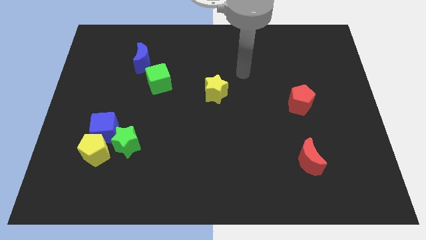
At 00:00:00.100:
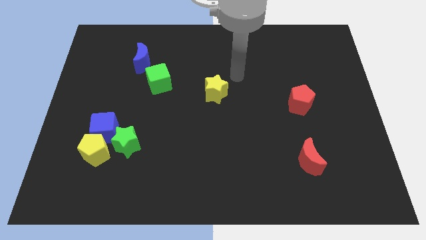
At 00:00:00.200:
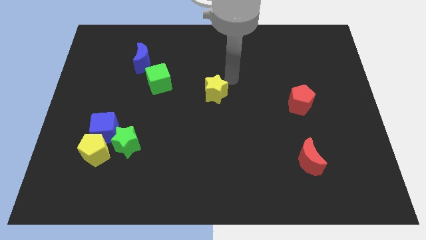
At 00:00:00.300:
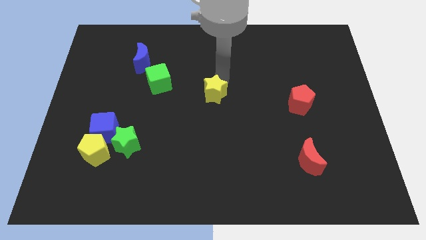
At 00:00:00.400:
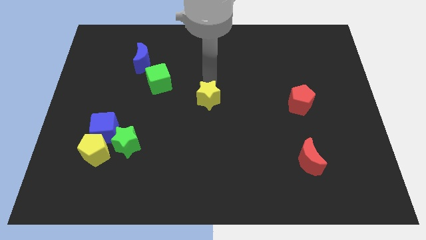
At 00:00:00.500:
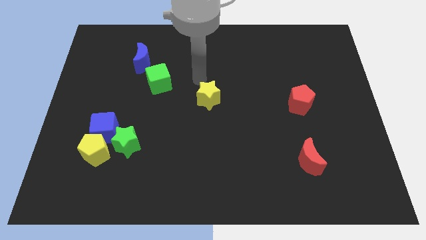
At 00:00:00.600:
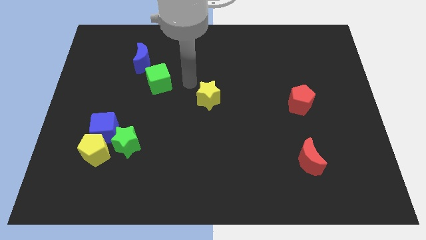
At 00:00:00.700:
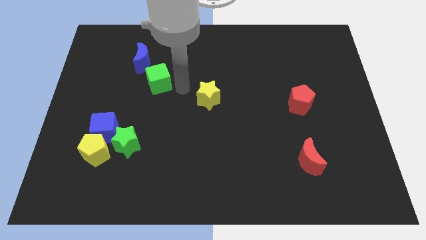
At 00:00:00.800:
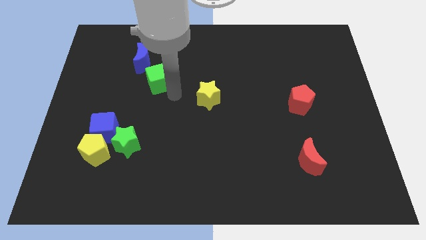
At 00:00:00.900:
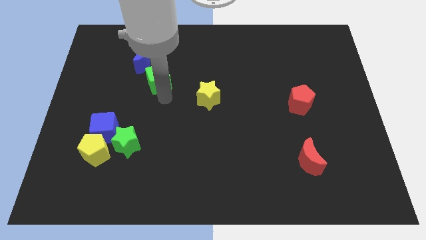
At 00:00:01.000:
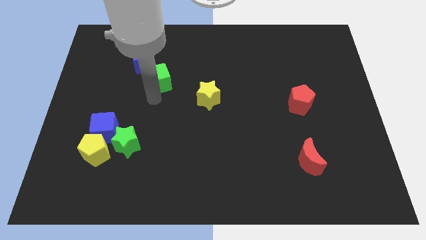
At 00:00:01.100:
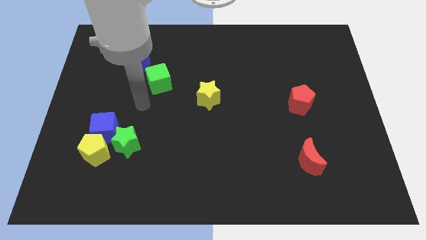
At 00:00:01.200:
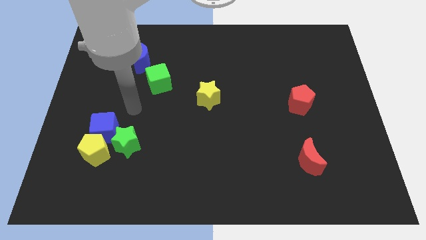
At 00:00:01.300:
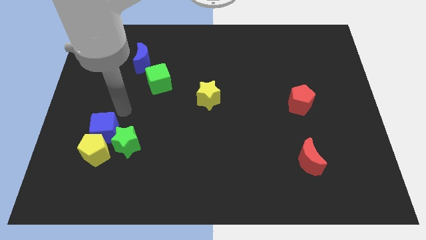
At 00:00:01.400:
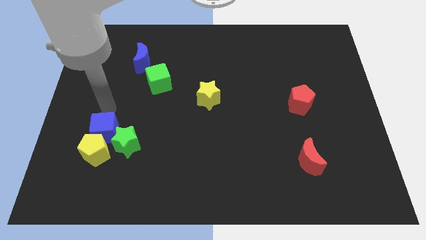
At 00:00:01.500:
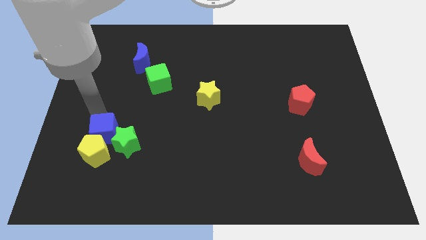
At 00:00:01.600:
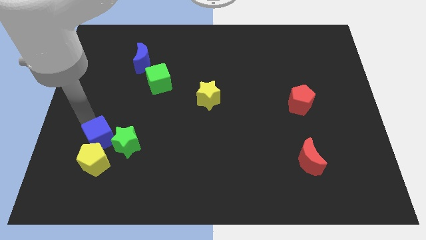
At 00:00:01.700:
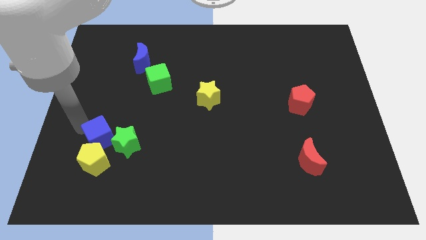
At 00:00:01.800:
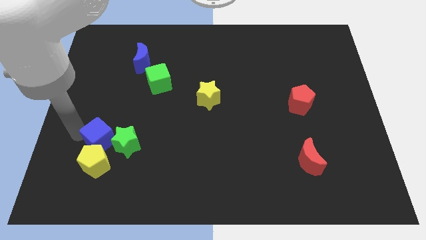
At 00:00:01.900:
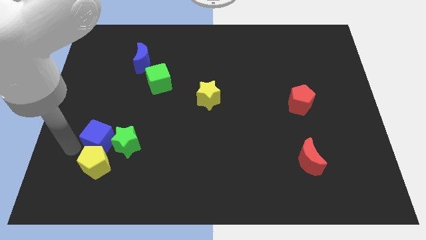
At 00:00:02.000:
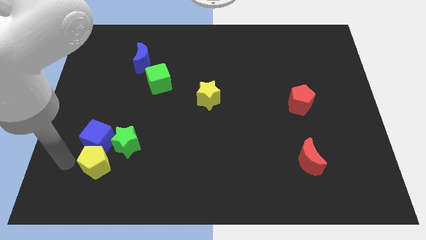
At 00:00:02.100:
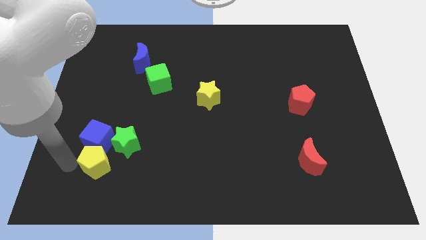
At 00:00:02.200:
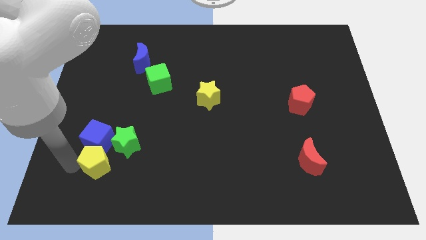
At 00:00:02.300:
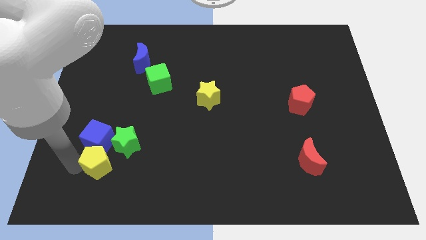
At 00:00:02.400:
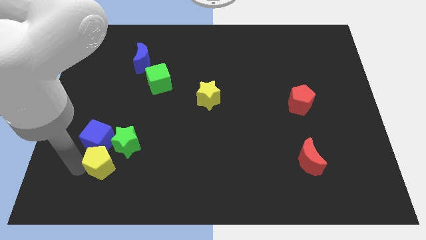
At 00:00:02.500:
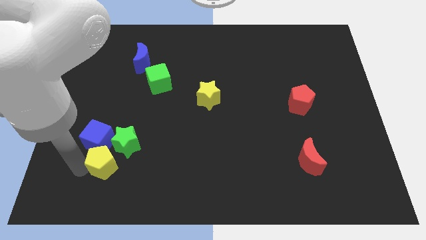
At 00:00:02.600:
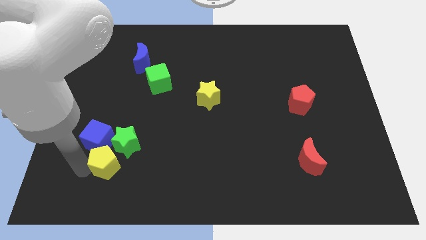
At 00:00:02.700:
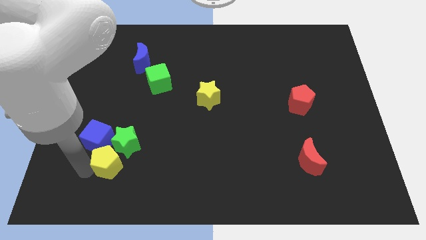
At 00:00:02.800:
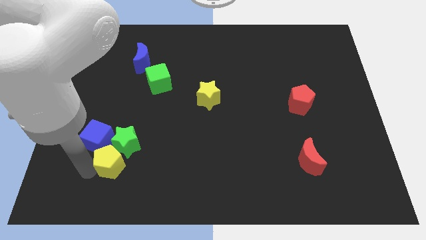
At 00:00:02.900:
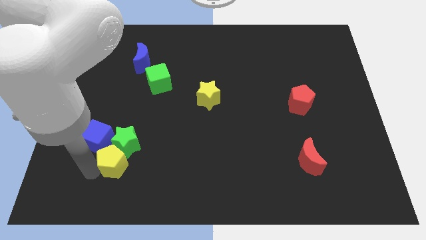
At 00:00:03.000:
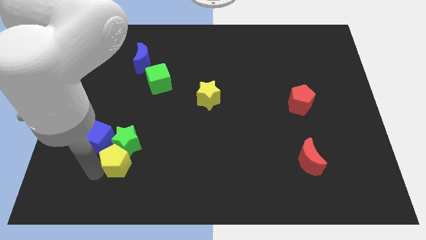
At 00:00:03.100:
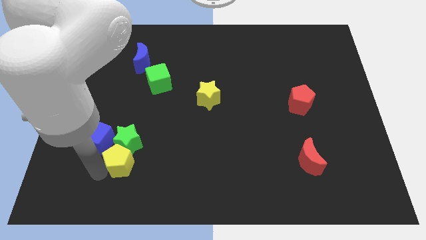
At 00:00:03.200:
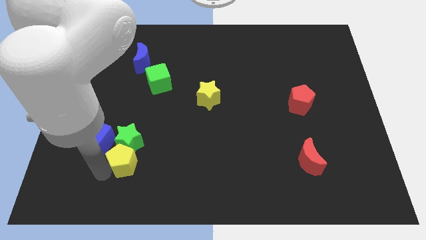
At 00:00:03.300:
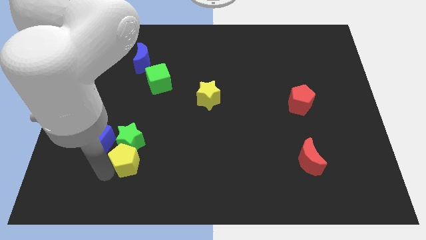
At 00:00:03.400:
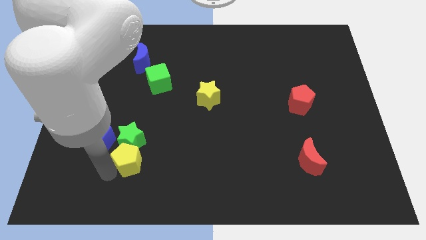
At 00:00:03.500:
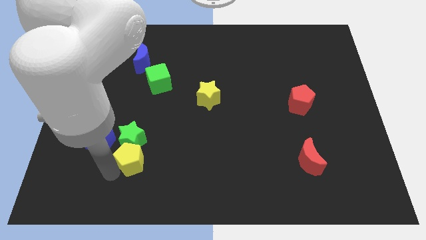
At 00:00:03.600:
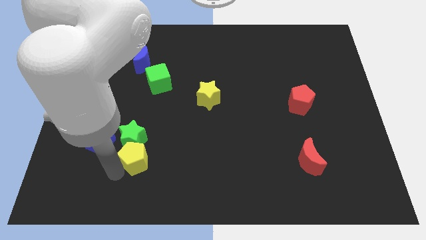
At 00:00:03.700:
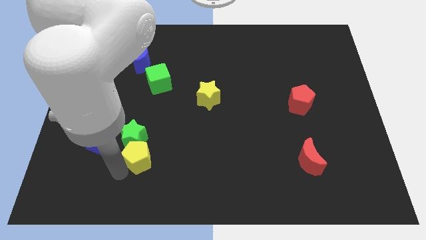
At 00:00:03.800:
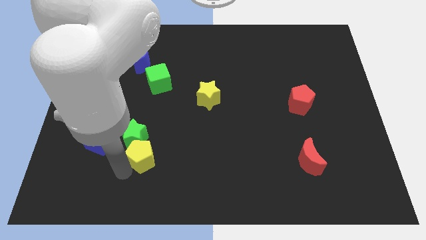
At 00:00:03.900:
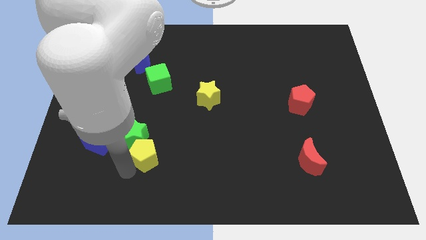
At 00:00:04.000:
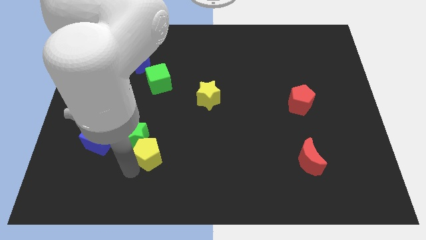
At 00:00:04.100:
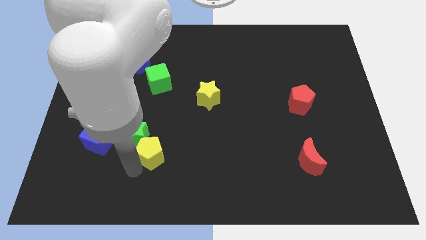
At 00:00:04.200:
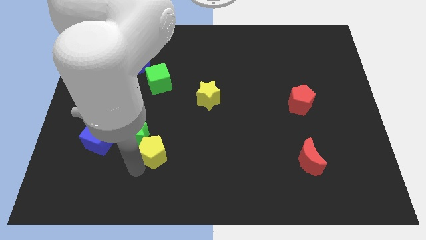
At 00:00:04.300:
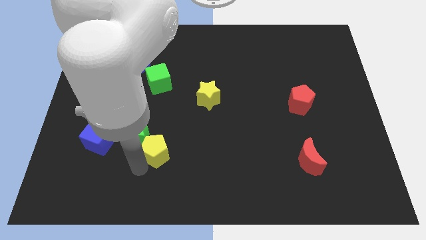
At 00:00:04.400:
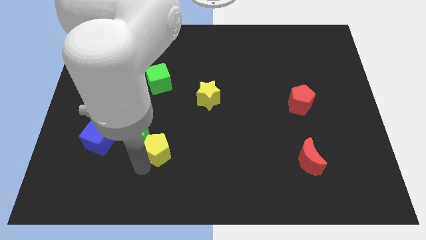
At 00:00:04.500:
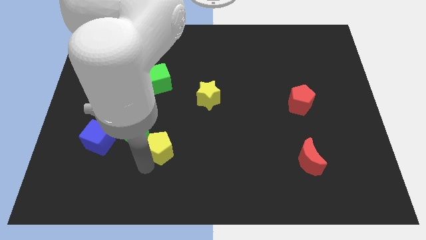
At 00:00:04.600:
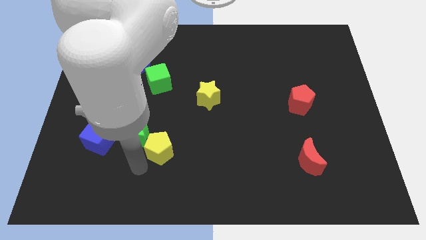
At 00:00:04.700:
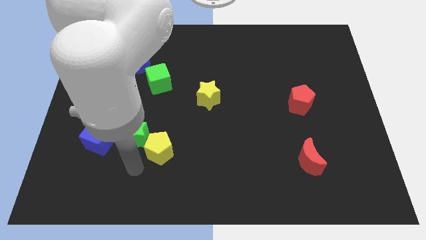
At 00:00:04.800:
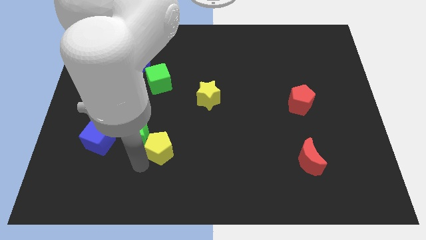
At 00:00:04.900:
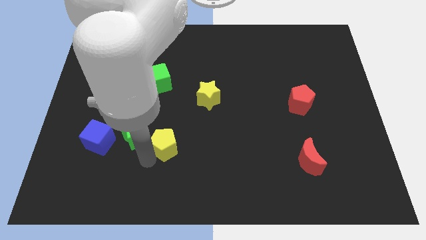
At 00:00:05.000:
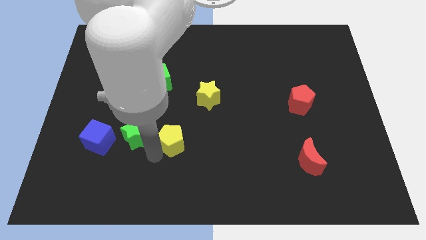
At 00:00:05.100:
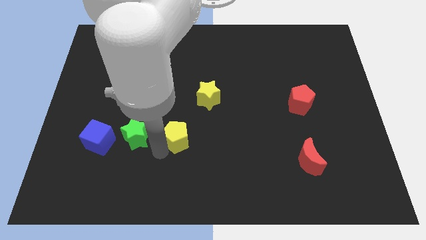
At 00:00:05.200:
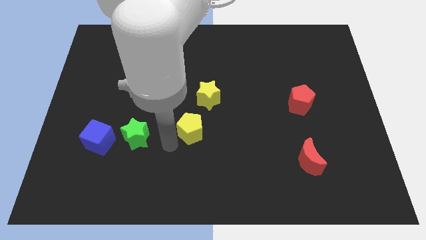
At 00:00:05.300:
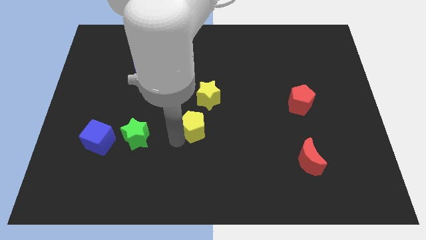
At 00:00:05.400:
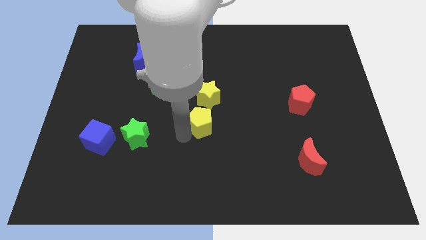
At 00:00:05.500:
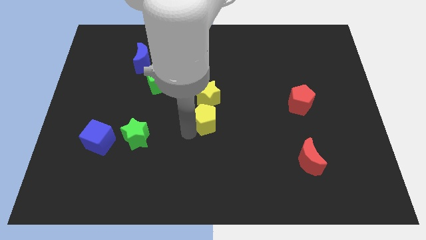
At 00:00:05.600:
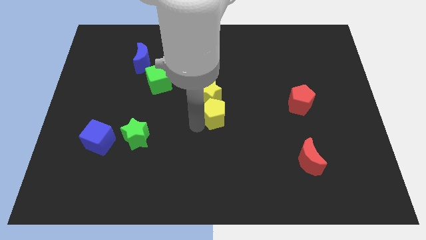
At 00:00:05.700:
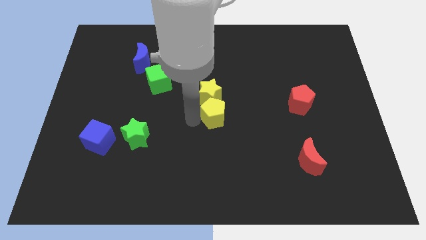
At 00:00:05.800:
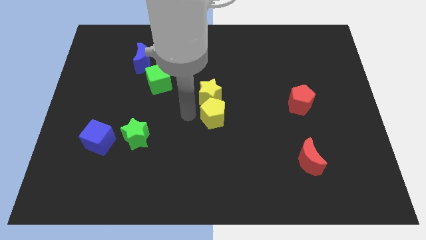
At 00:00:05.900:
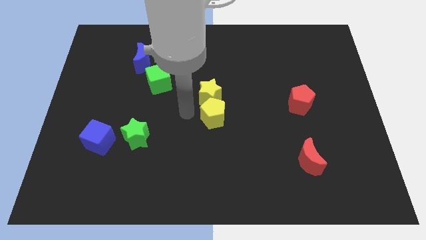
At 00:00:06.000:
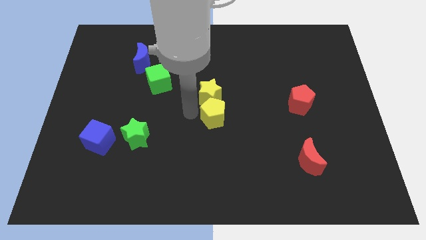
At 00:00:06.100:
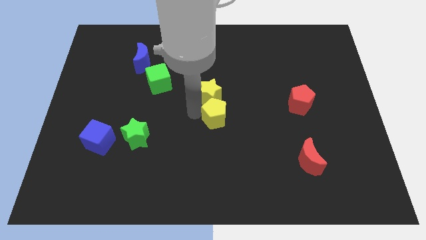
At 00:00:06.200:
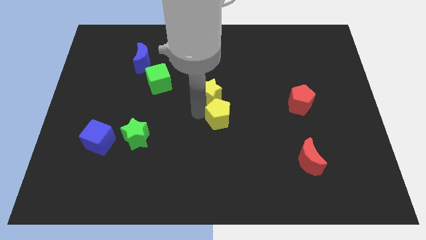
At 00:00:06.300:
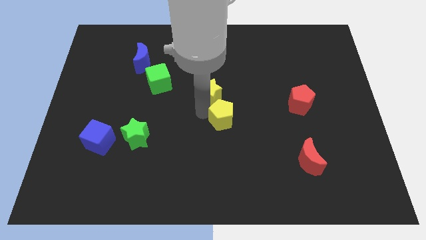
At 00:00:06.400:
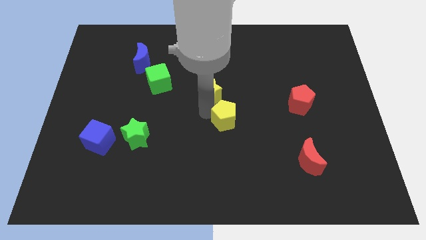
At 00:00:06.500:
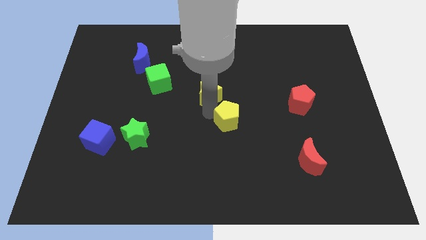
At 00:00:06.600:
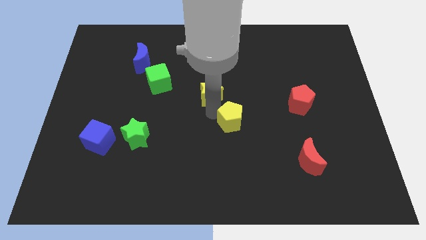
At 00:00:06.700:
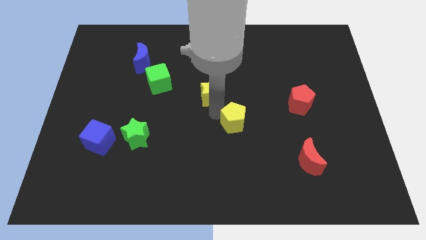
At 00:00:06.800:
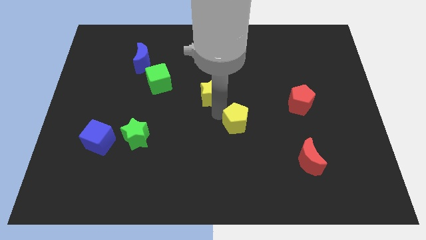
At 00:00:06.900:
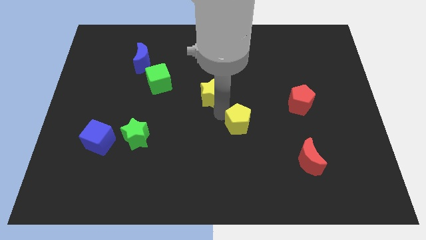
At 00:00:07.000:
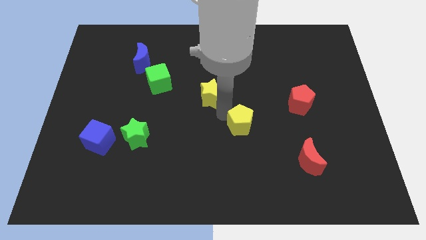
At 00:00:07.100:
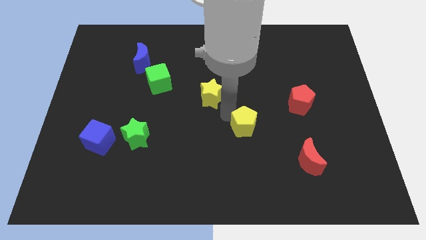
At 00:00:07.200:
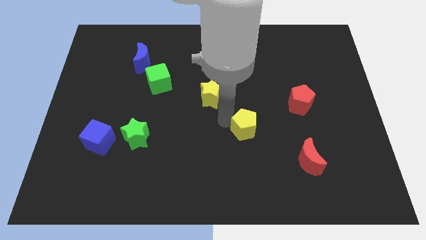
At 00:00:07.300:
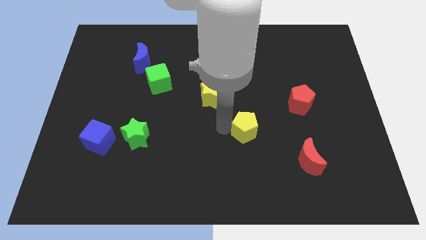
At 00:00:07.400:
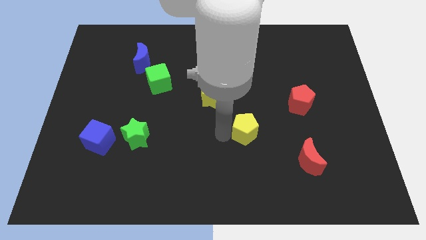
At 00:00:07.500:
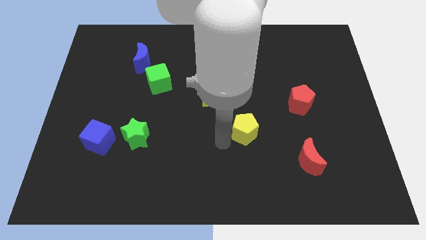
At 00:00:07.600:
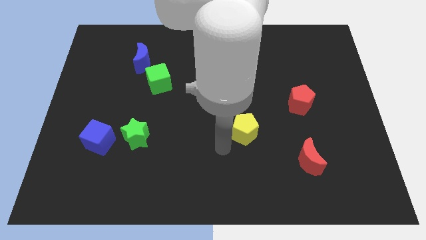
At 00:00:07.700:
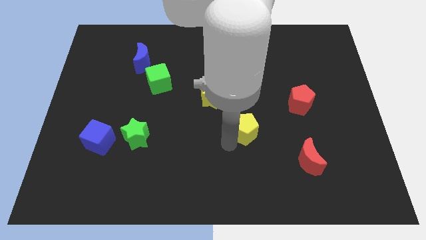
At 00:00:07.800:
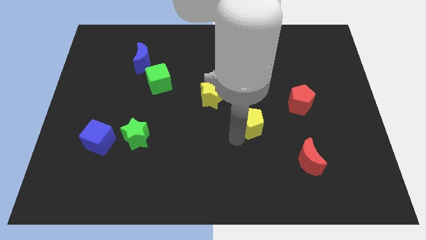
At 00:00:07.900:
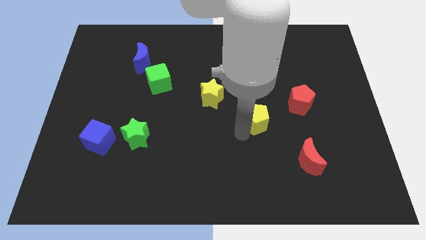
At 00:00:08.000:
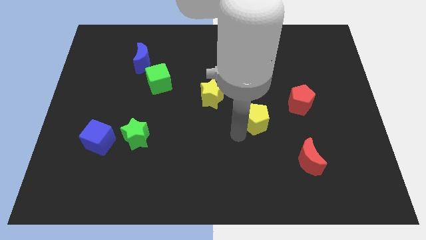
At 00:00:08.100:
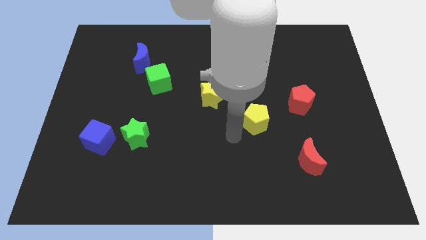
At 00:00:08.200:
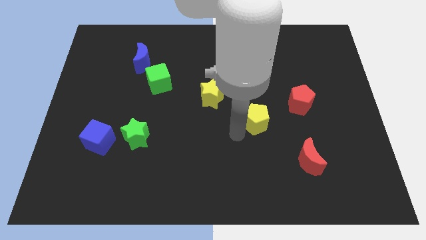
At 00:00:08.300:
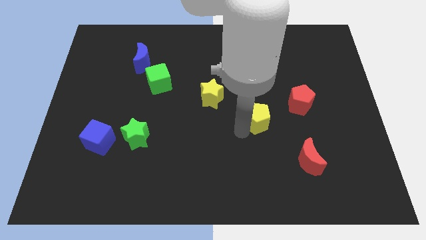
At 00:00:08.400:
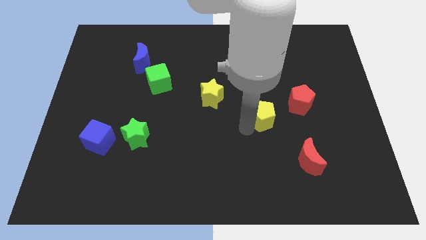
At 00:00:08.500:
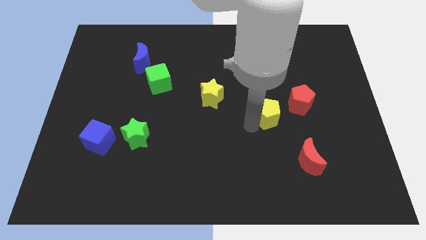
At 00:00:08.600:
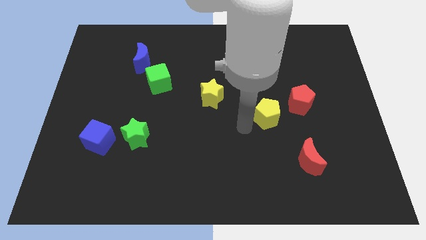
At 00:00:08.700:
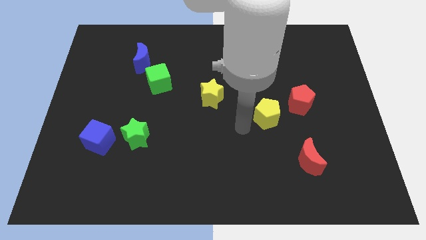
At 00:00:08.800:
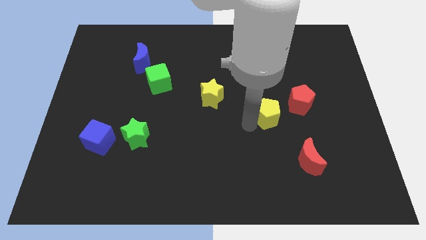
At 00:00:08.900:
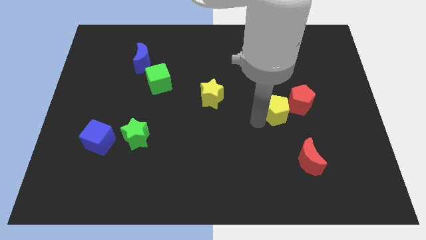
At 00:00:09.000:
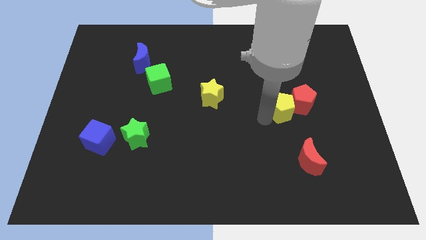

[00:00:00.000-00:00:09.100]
put the yellow pentagon next to the red pentagon
